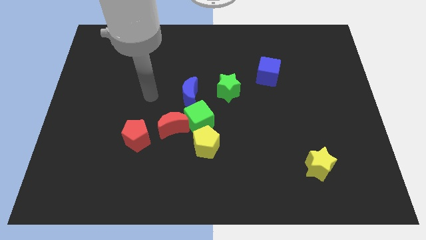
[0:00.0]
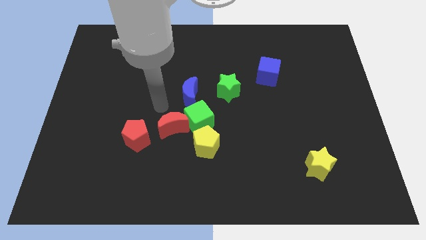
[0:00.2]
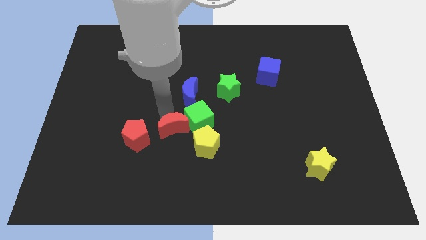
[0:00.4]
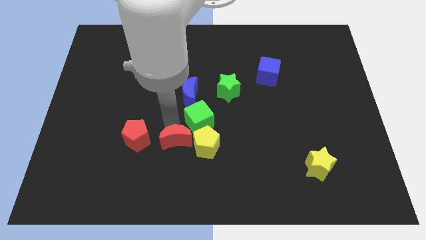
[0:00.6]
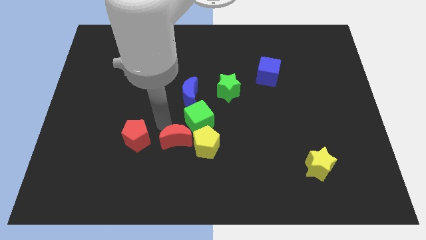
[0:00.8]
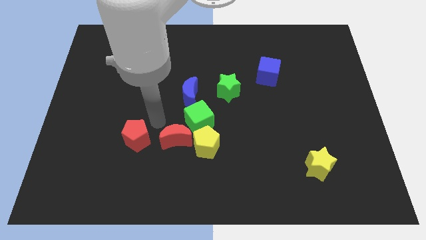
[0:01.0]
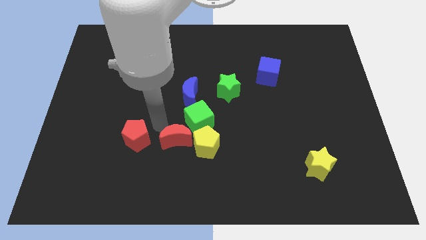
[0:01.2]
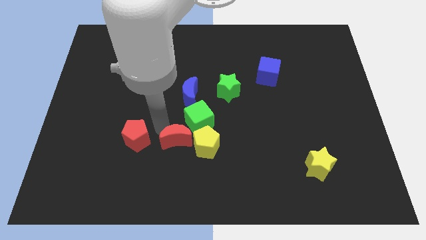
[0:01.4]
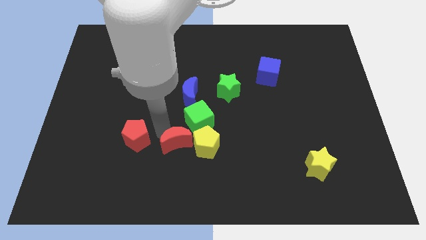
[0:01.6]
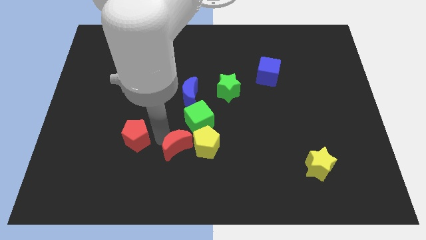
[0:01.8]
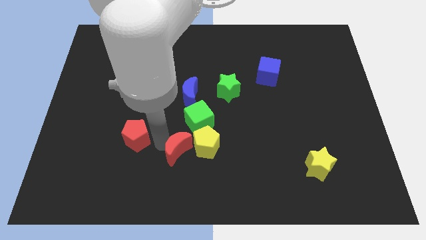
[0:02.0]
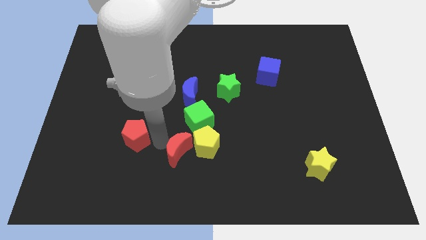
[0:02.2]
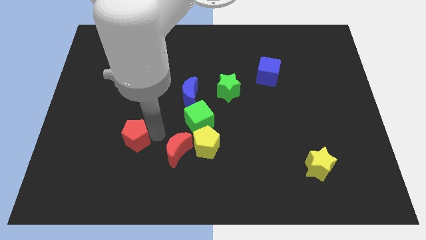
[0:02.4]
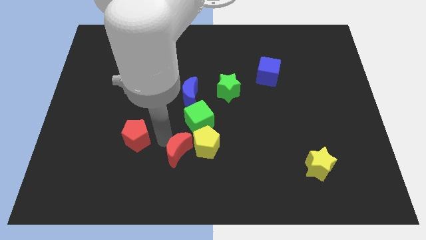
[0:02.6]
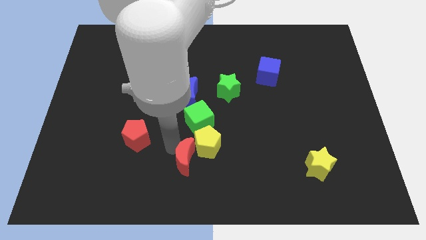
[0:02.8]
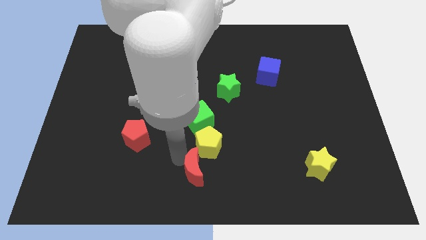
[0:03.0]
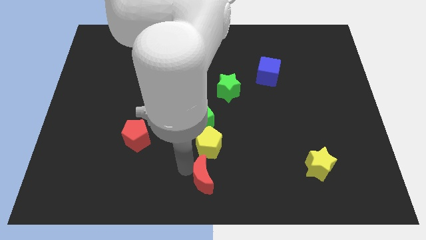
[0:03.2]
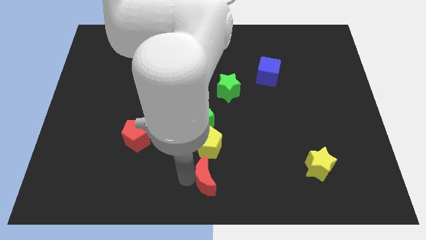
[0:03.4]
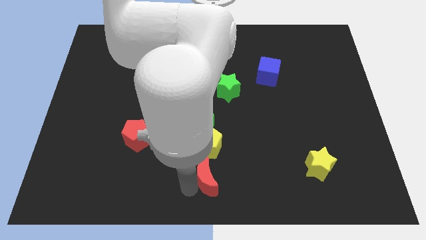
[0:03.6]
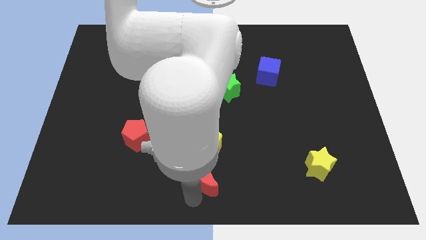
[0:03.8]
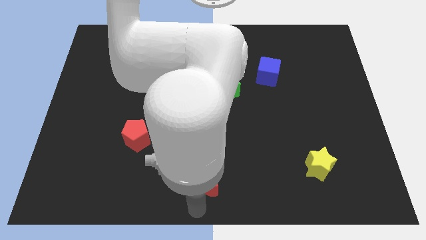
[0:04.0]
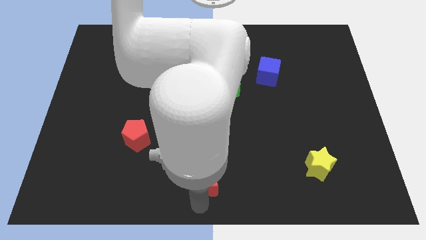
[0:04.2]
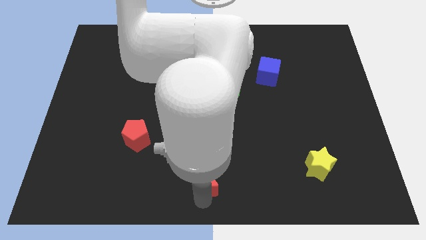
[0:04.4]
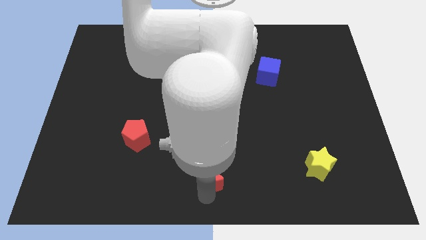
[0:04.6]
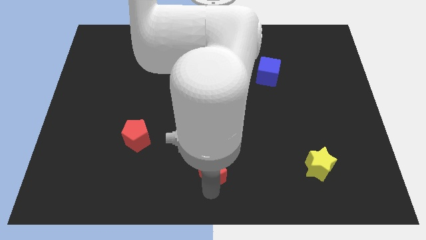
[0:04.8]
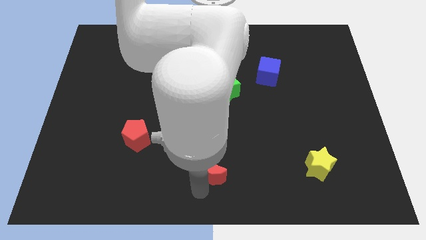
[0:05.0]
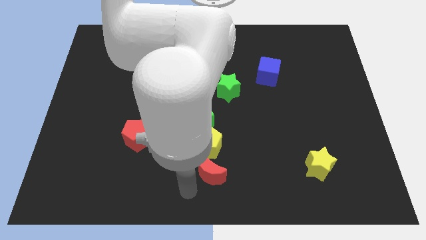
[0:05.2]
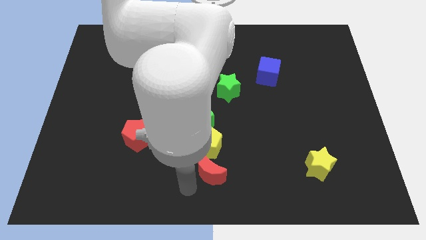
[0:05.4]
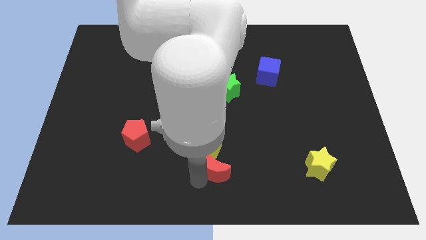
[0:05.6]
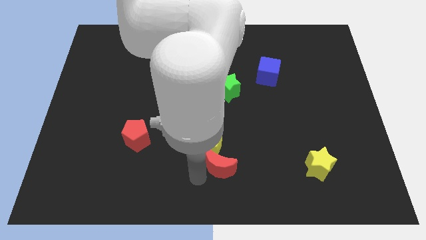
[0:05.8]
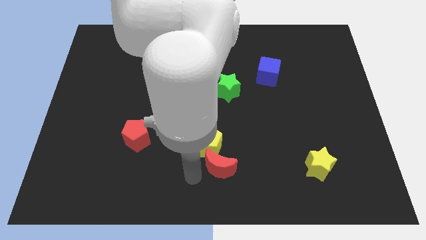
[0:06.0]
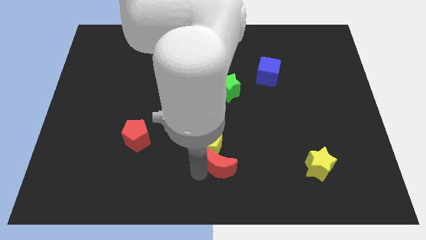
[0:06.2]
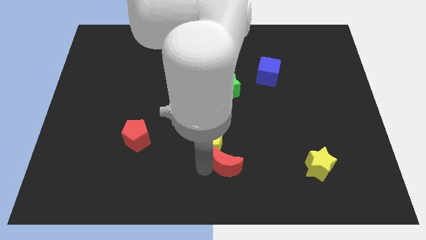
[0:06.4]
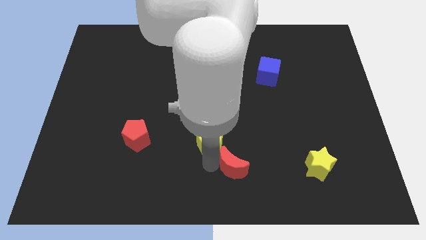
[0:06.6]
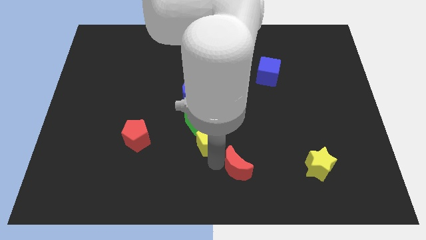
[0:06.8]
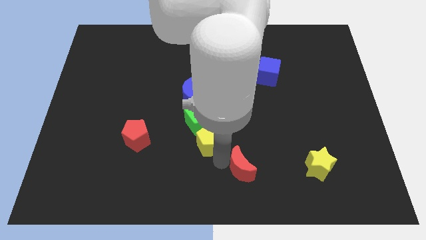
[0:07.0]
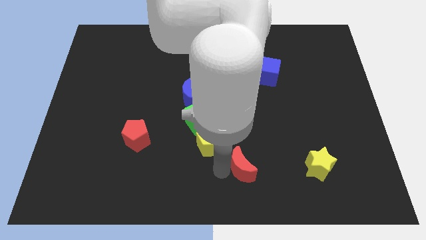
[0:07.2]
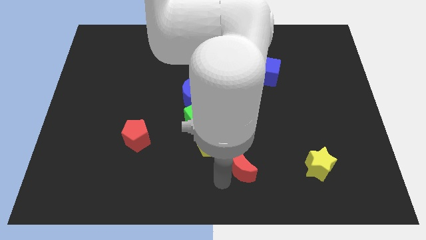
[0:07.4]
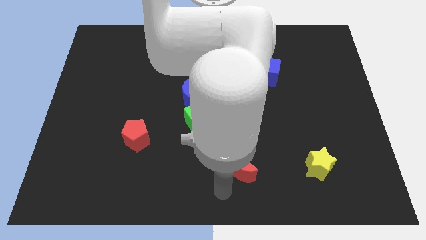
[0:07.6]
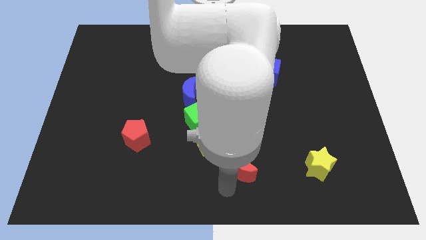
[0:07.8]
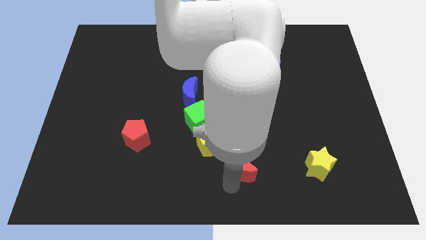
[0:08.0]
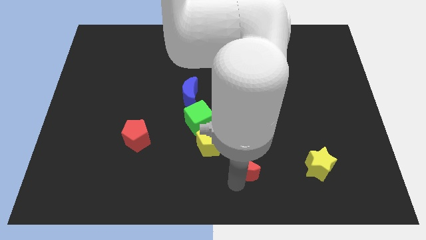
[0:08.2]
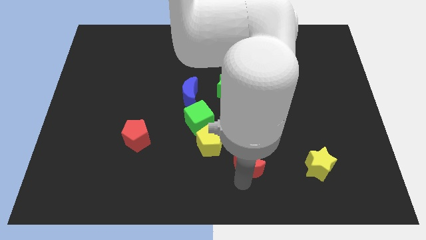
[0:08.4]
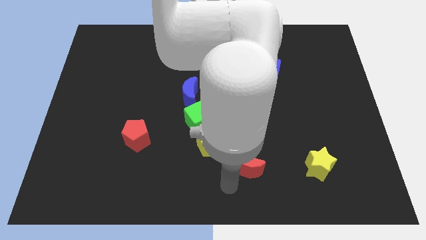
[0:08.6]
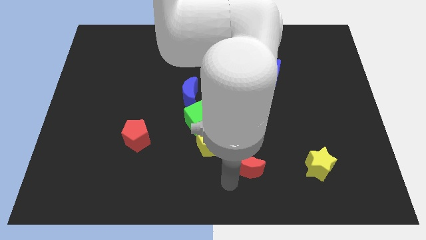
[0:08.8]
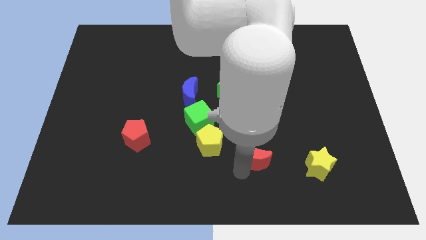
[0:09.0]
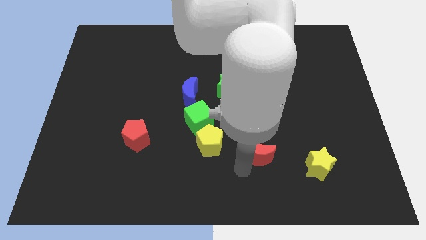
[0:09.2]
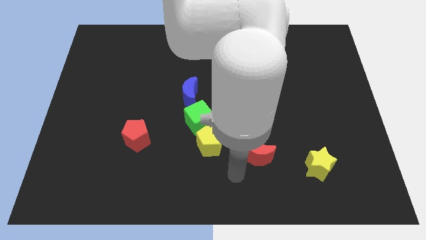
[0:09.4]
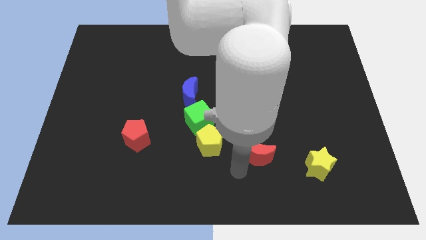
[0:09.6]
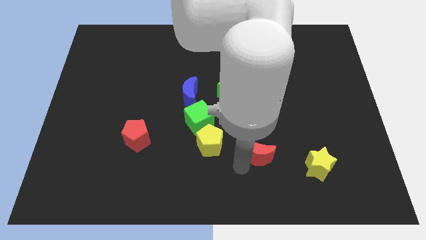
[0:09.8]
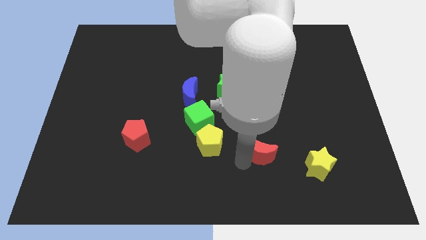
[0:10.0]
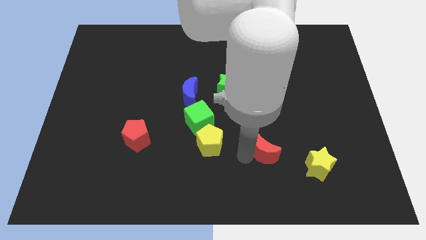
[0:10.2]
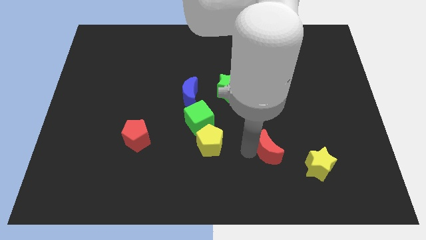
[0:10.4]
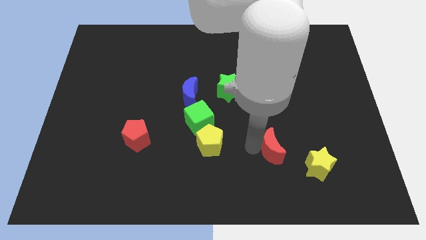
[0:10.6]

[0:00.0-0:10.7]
push the red moon to the right

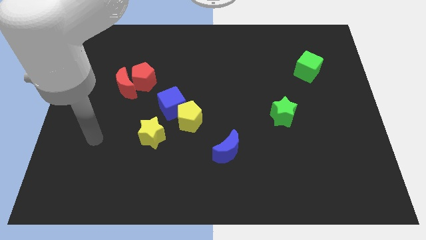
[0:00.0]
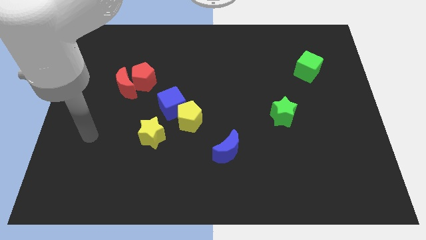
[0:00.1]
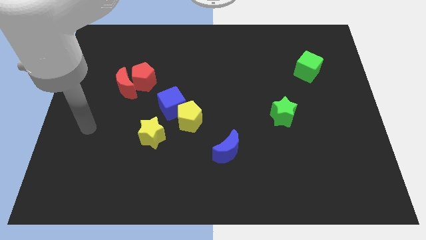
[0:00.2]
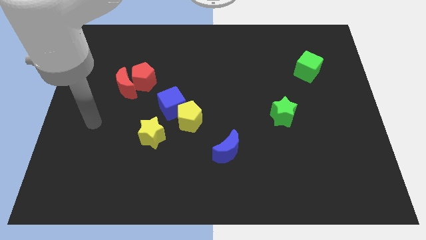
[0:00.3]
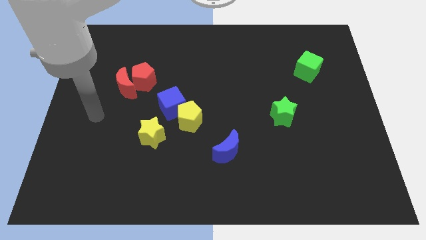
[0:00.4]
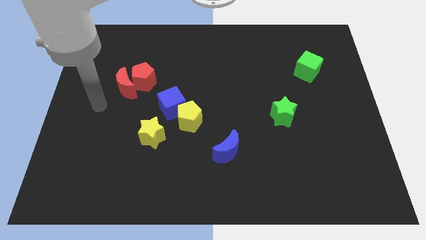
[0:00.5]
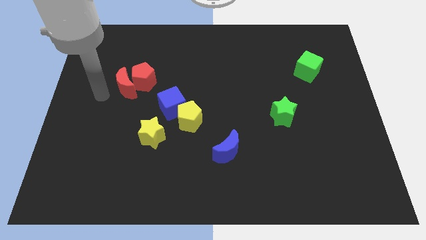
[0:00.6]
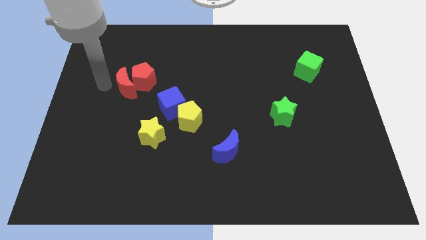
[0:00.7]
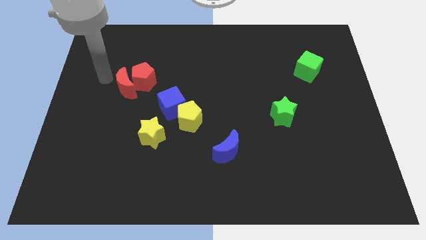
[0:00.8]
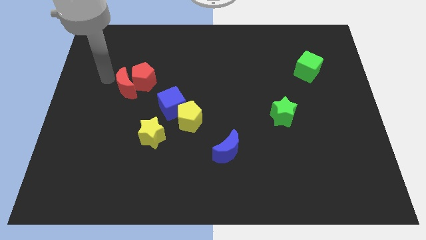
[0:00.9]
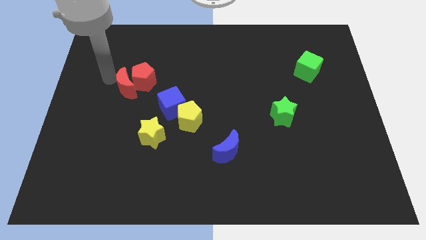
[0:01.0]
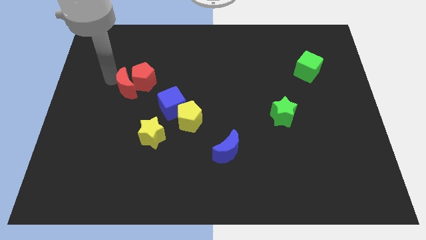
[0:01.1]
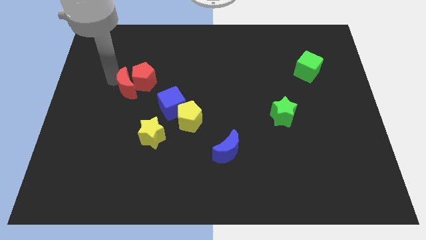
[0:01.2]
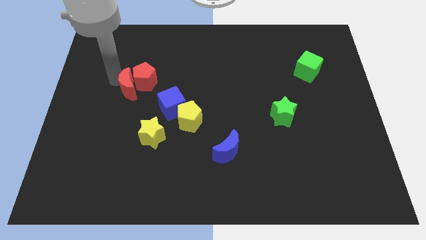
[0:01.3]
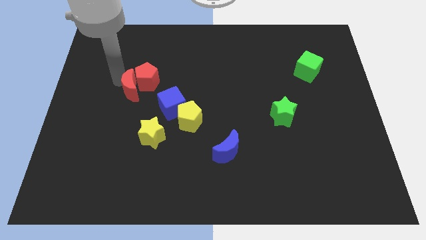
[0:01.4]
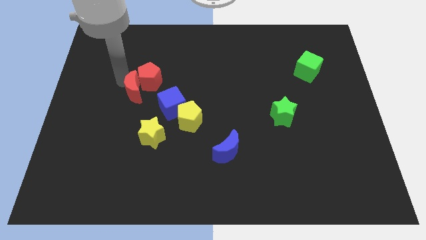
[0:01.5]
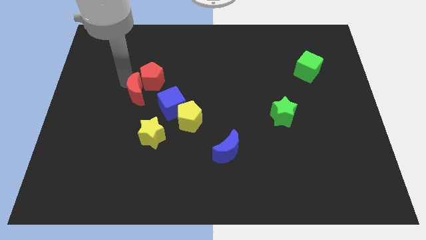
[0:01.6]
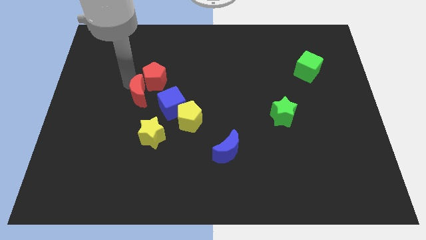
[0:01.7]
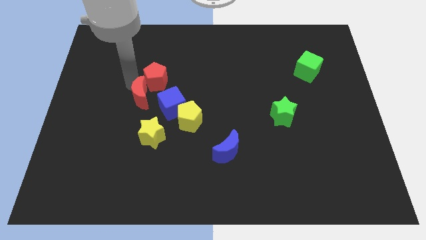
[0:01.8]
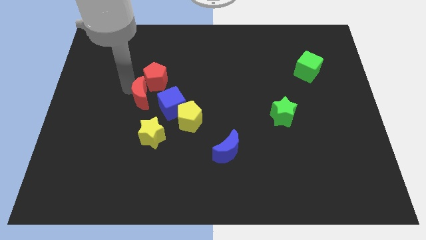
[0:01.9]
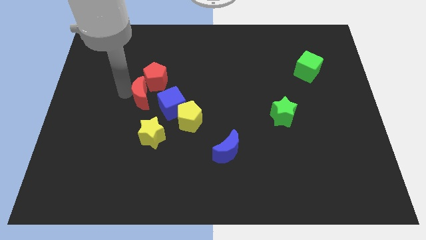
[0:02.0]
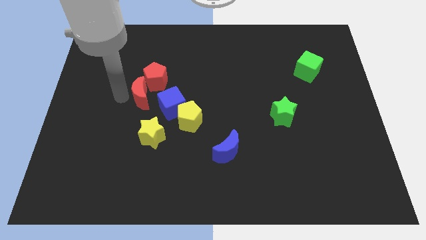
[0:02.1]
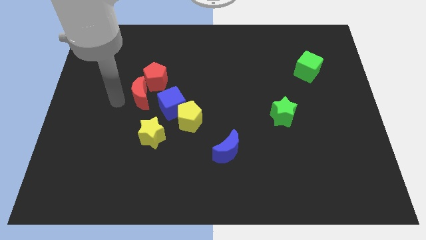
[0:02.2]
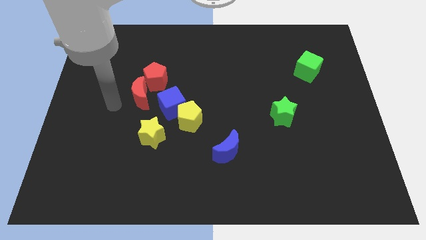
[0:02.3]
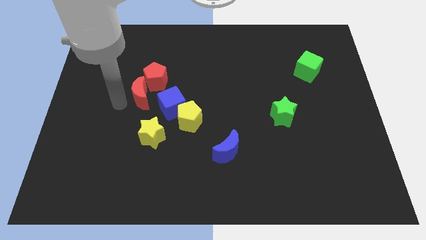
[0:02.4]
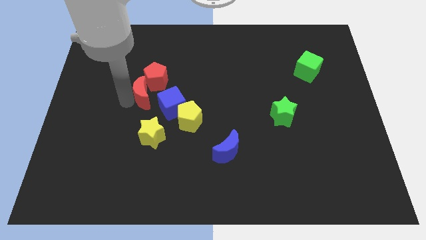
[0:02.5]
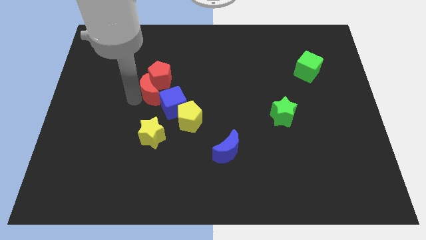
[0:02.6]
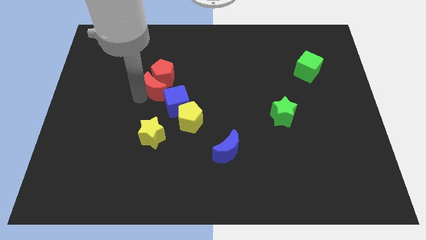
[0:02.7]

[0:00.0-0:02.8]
slightly push the red moon right
